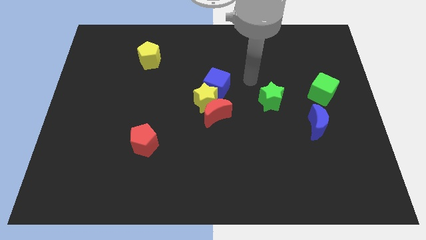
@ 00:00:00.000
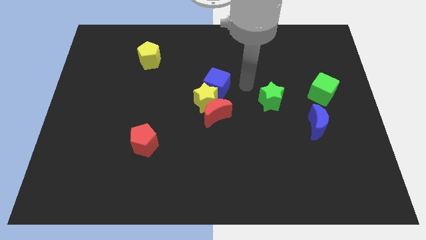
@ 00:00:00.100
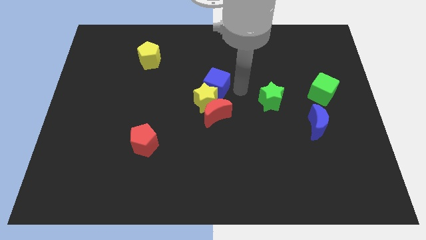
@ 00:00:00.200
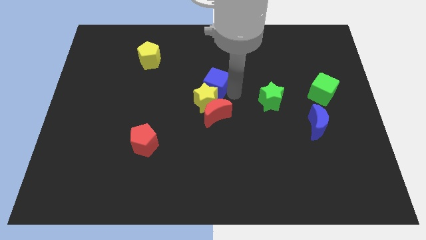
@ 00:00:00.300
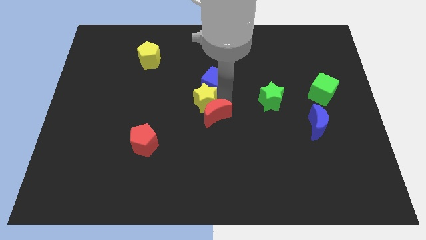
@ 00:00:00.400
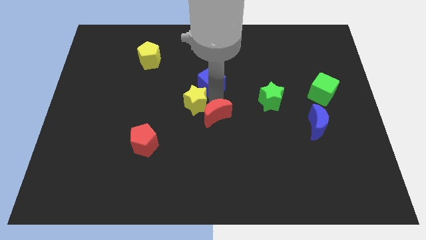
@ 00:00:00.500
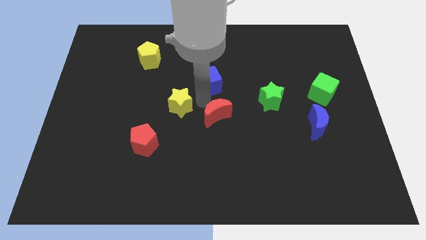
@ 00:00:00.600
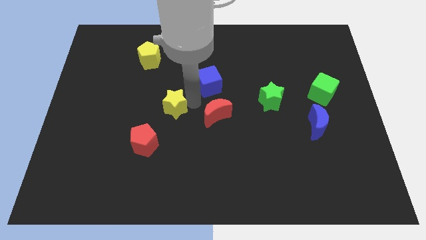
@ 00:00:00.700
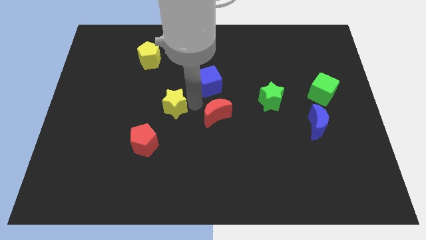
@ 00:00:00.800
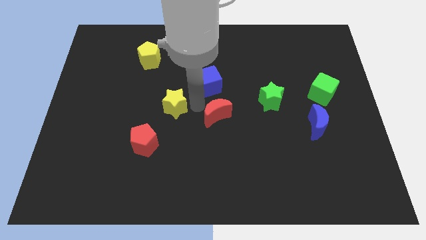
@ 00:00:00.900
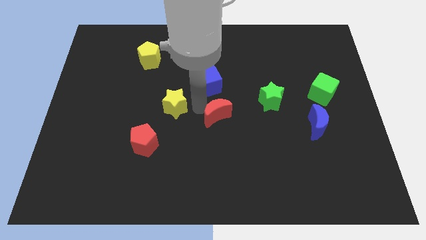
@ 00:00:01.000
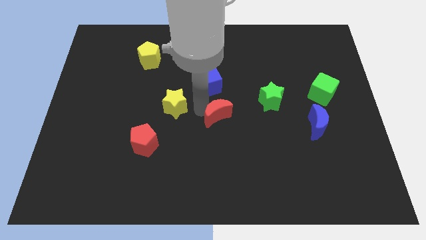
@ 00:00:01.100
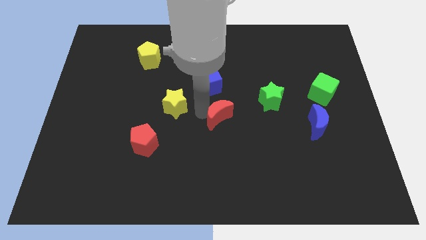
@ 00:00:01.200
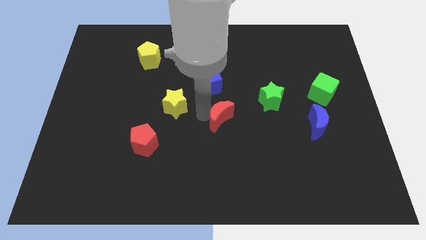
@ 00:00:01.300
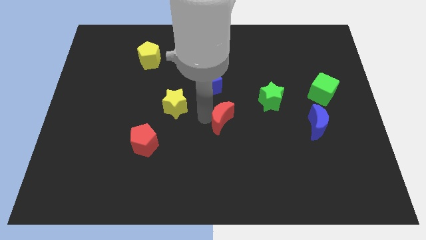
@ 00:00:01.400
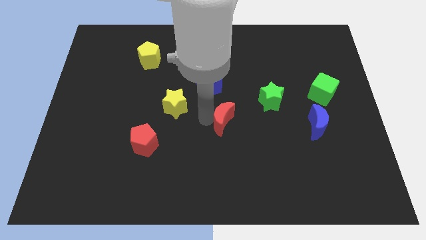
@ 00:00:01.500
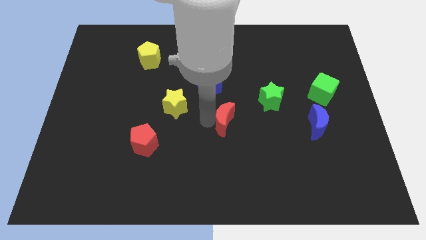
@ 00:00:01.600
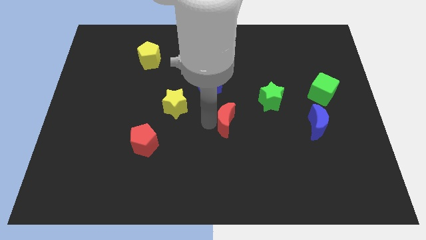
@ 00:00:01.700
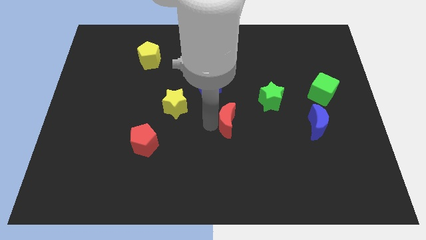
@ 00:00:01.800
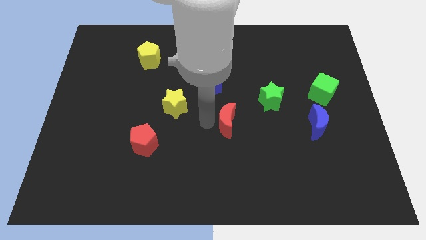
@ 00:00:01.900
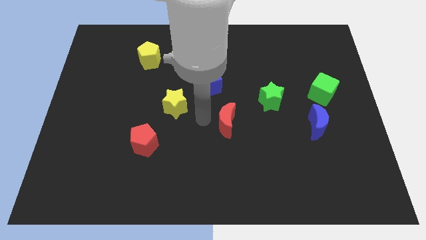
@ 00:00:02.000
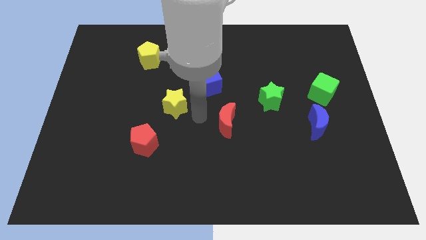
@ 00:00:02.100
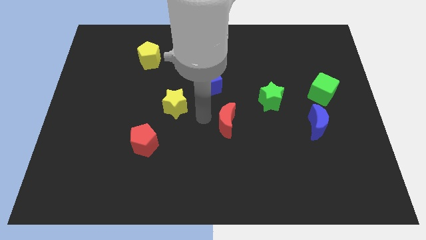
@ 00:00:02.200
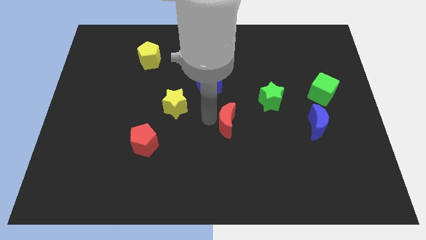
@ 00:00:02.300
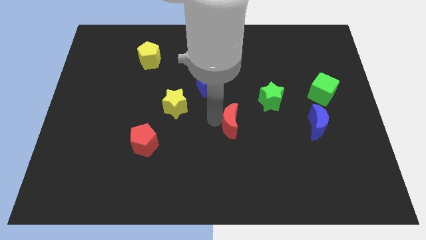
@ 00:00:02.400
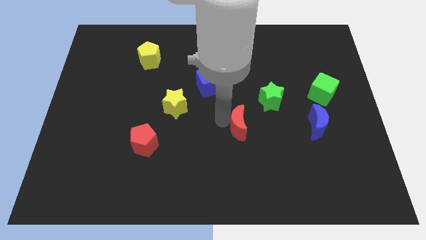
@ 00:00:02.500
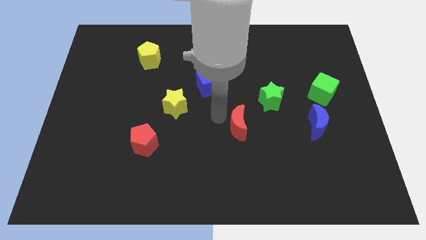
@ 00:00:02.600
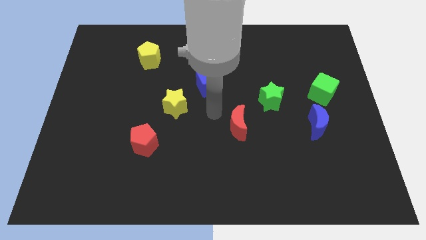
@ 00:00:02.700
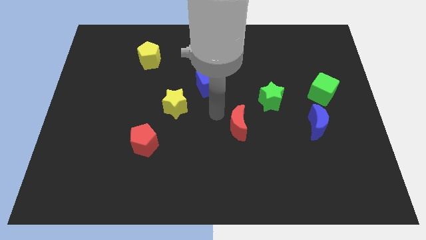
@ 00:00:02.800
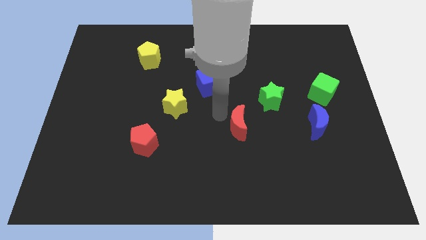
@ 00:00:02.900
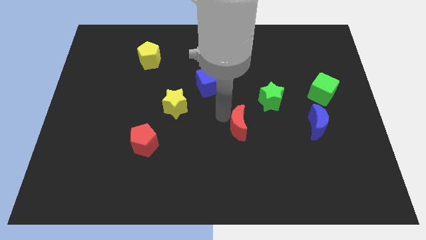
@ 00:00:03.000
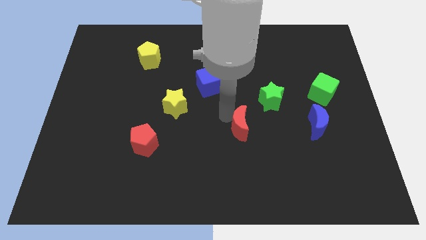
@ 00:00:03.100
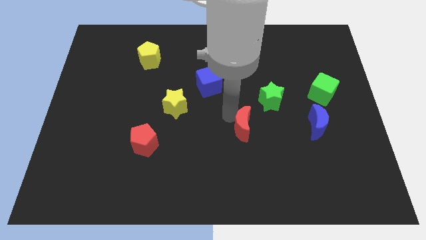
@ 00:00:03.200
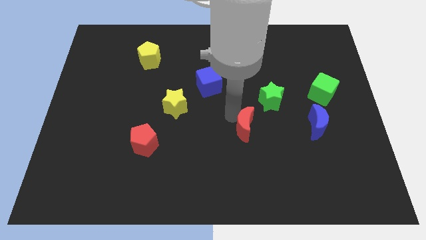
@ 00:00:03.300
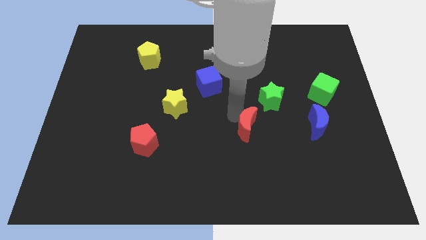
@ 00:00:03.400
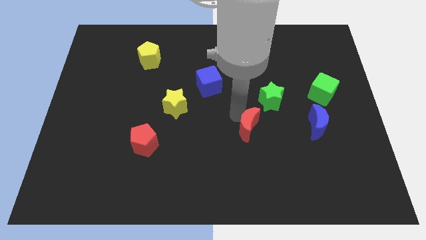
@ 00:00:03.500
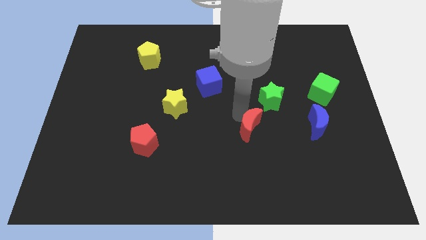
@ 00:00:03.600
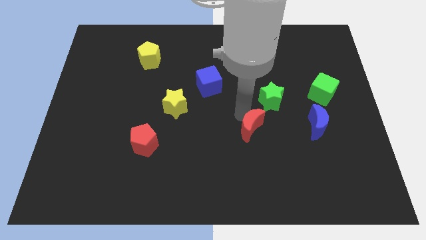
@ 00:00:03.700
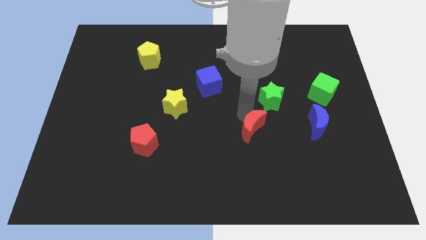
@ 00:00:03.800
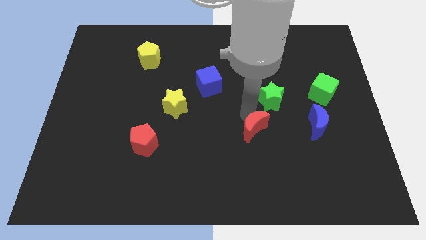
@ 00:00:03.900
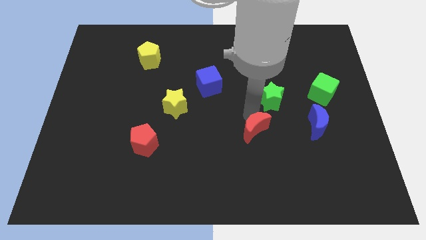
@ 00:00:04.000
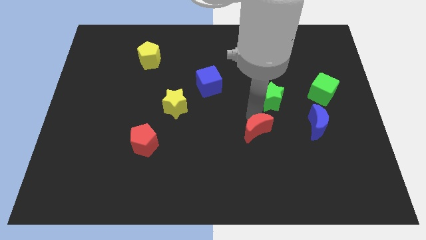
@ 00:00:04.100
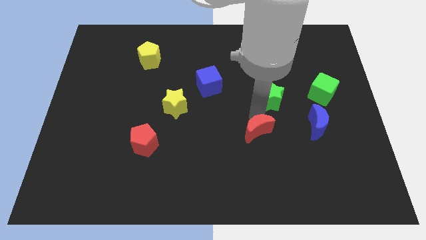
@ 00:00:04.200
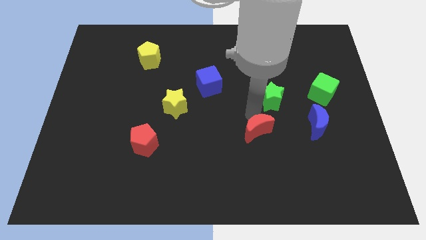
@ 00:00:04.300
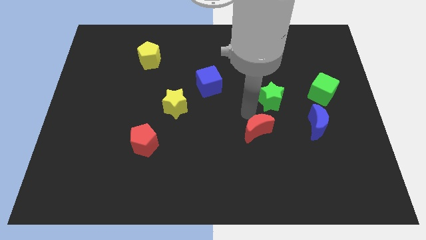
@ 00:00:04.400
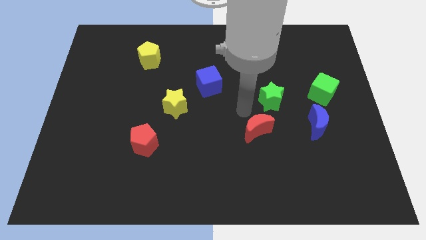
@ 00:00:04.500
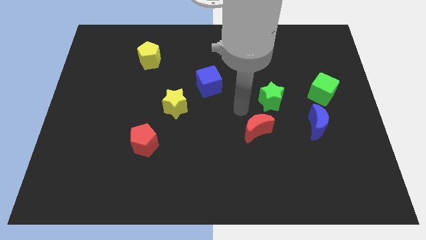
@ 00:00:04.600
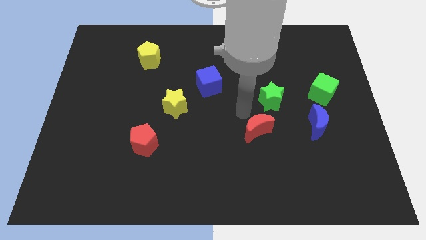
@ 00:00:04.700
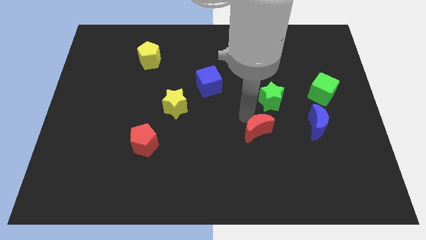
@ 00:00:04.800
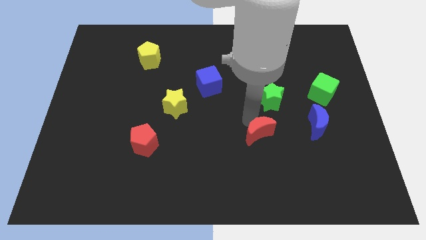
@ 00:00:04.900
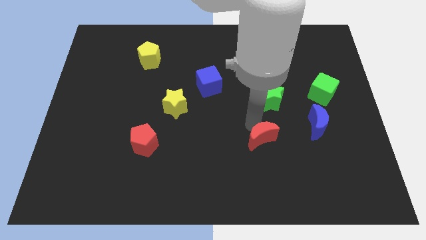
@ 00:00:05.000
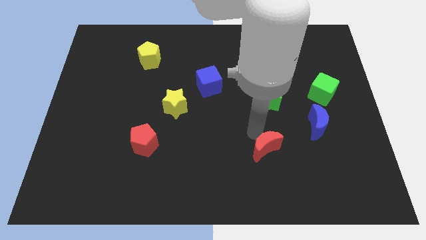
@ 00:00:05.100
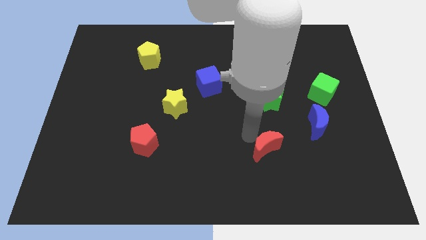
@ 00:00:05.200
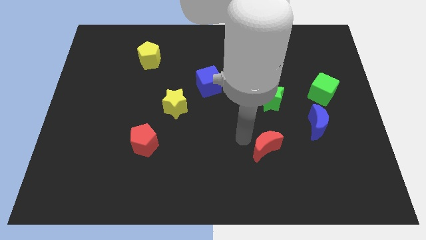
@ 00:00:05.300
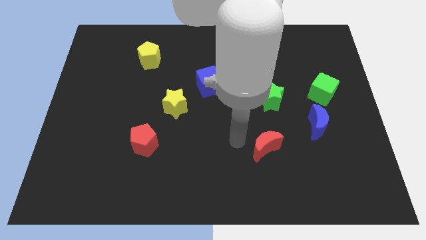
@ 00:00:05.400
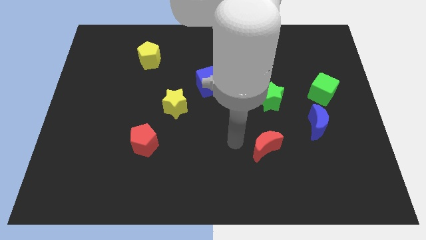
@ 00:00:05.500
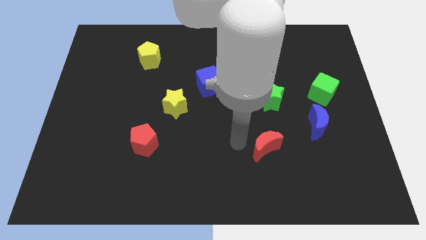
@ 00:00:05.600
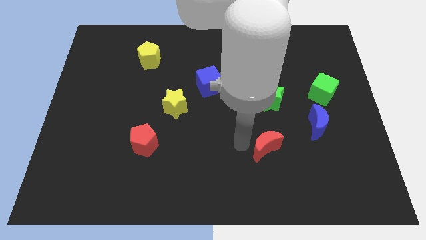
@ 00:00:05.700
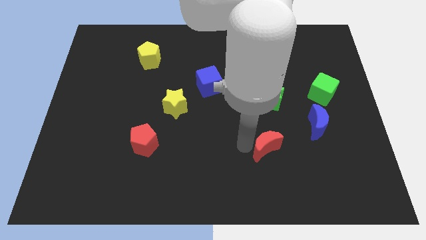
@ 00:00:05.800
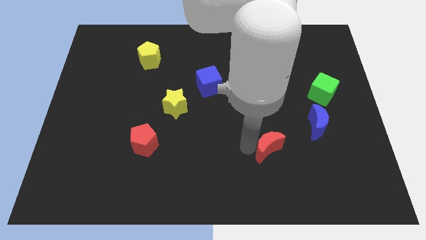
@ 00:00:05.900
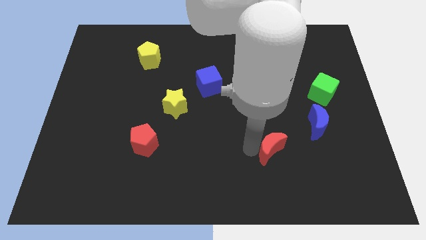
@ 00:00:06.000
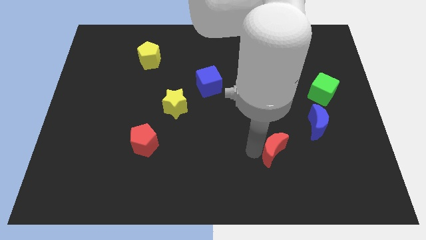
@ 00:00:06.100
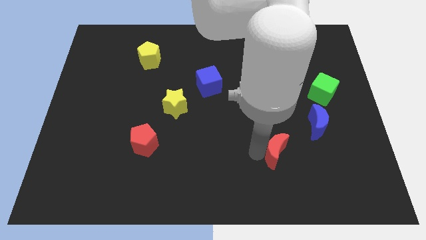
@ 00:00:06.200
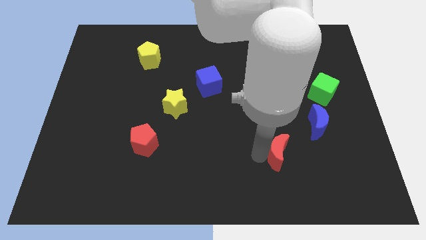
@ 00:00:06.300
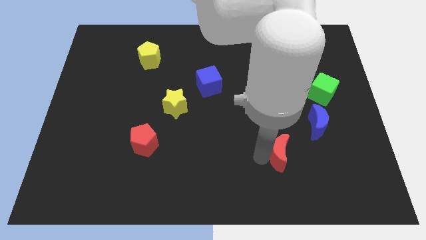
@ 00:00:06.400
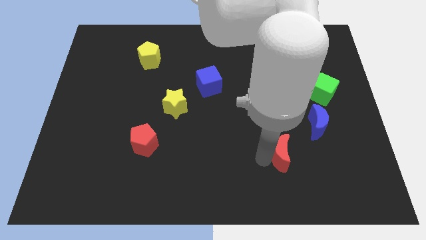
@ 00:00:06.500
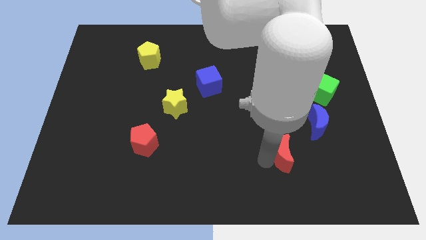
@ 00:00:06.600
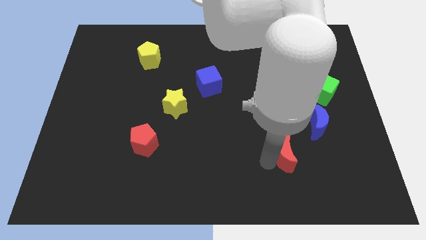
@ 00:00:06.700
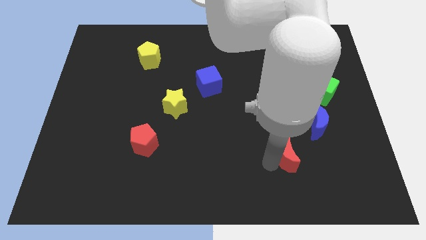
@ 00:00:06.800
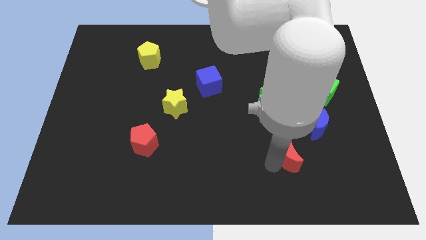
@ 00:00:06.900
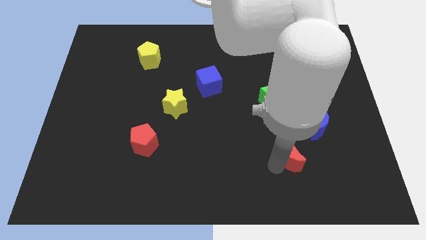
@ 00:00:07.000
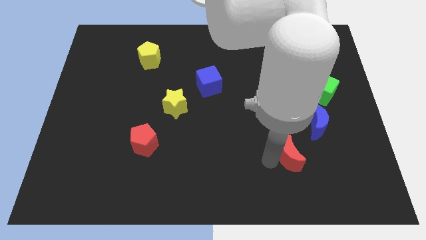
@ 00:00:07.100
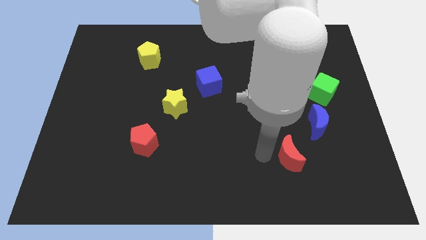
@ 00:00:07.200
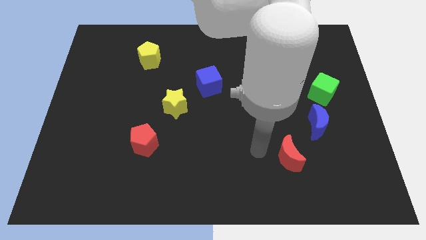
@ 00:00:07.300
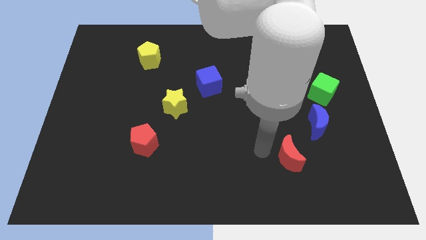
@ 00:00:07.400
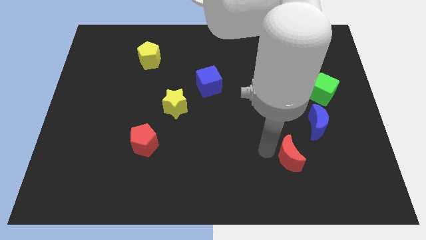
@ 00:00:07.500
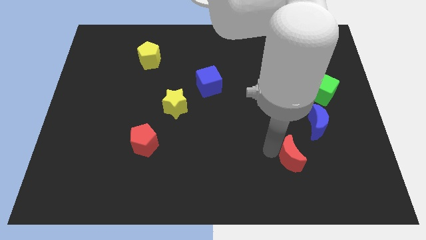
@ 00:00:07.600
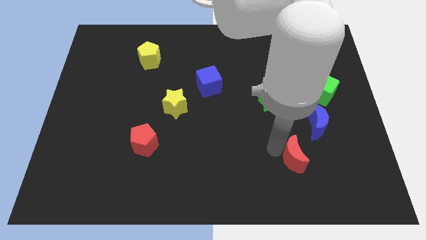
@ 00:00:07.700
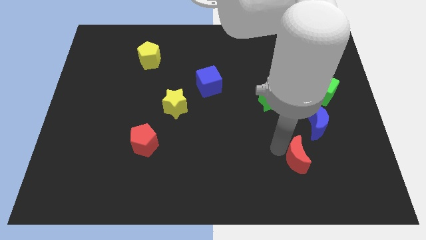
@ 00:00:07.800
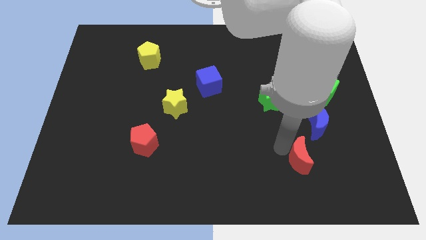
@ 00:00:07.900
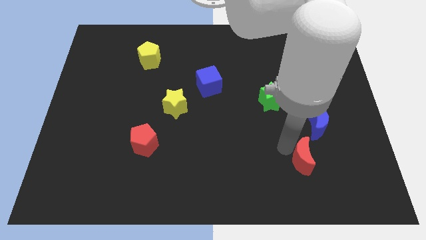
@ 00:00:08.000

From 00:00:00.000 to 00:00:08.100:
slide the red moon below the blue moon
